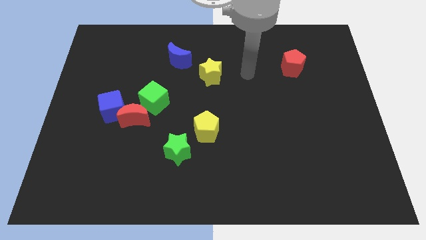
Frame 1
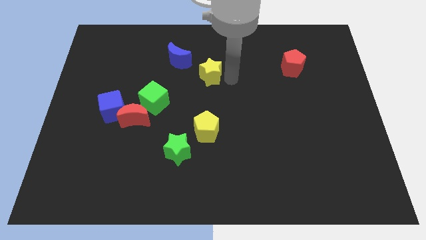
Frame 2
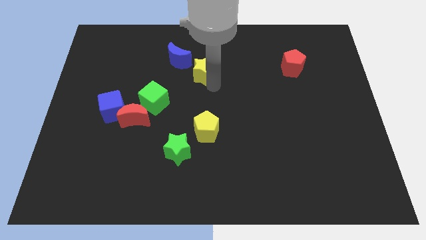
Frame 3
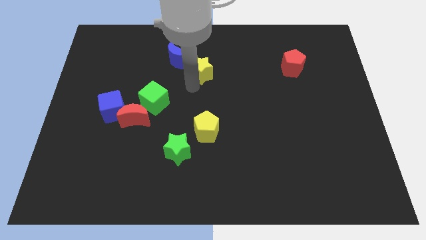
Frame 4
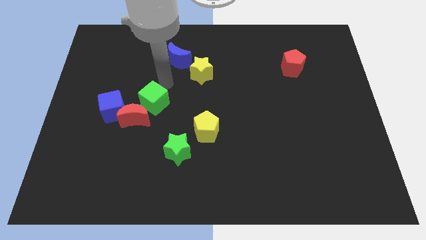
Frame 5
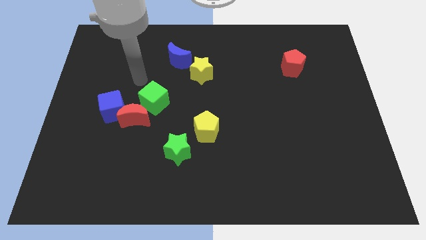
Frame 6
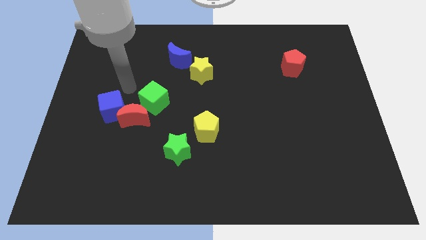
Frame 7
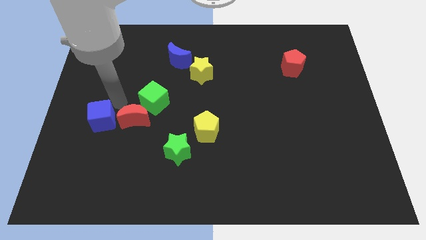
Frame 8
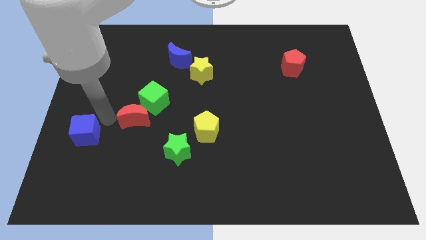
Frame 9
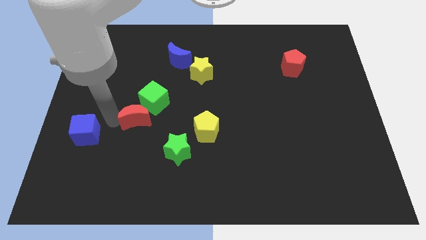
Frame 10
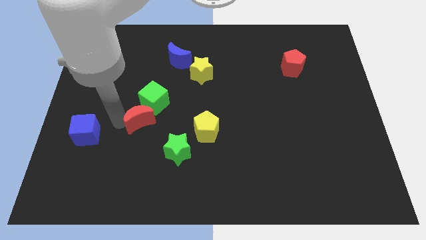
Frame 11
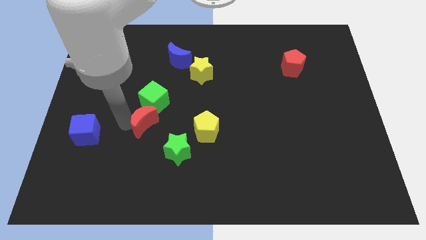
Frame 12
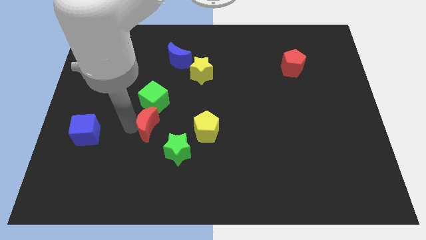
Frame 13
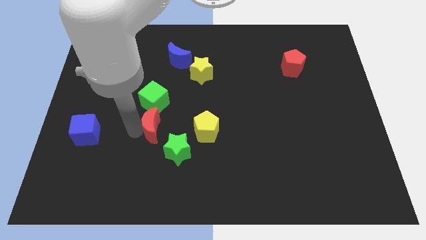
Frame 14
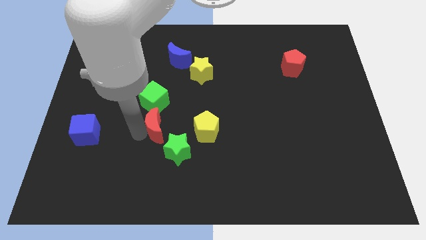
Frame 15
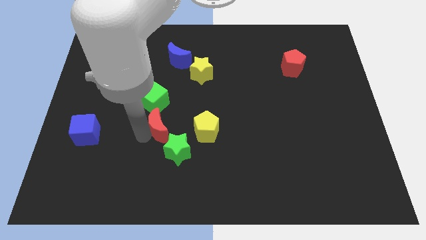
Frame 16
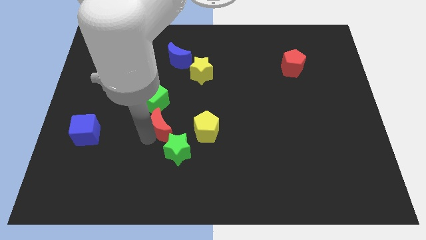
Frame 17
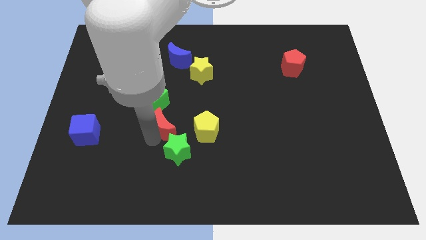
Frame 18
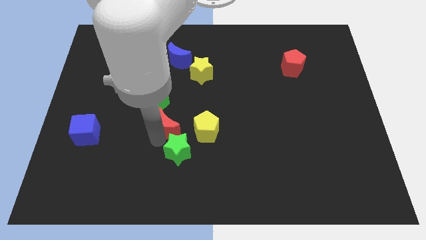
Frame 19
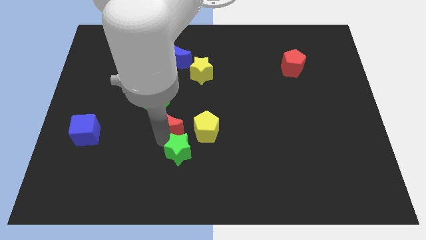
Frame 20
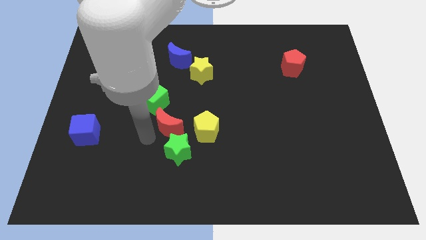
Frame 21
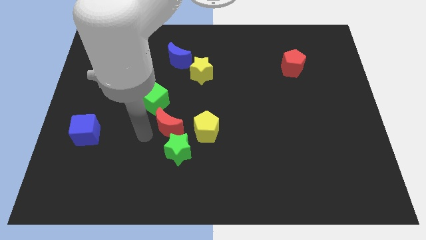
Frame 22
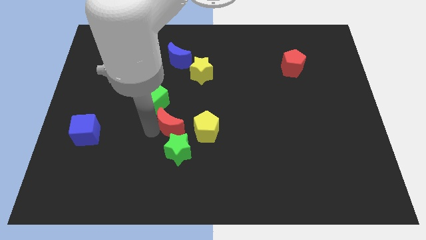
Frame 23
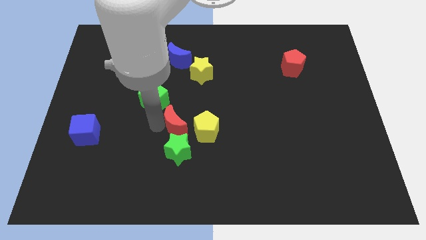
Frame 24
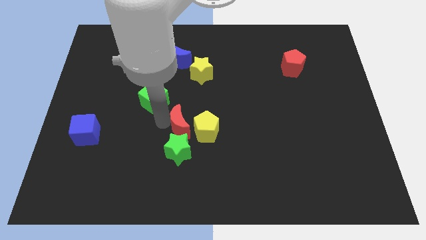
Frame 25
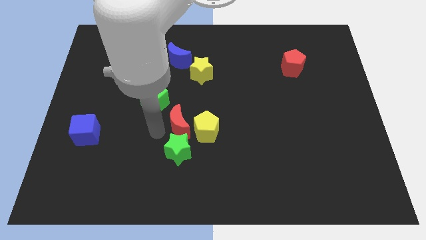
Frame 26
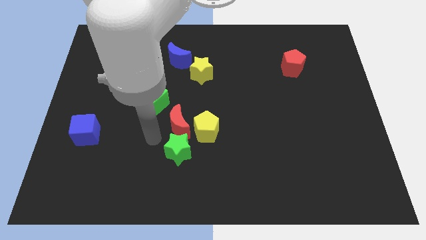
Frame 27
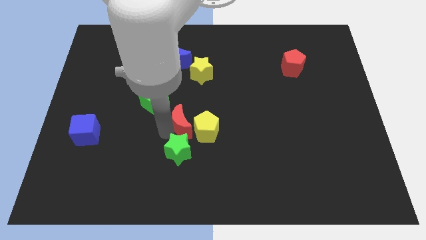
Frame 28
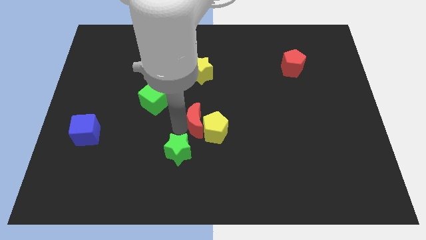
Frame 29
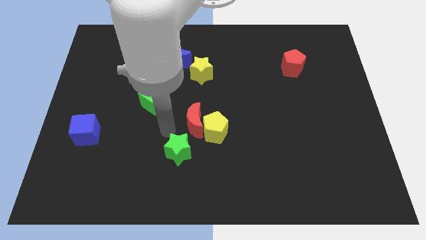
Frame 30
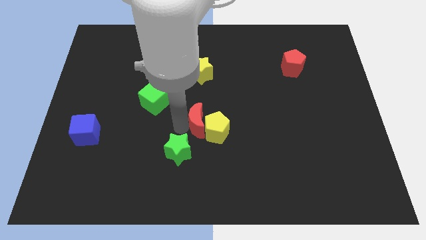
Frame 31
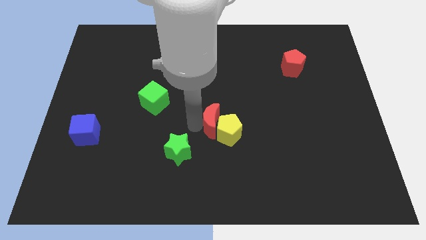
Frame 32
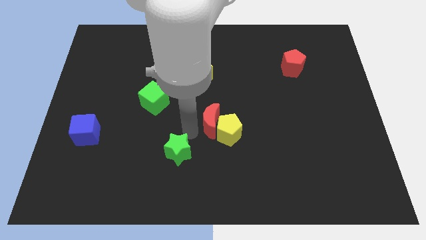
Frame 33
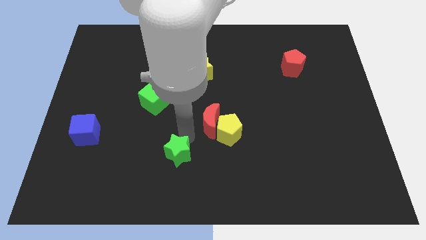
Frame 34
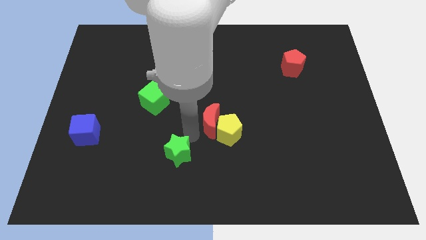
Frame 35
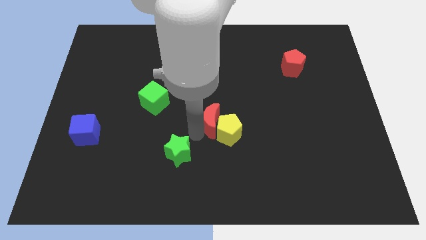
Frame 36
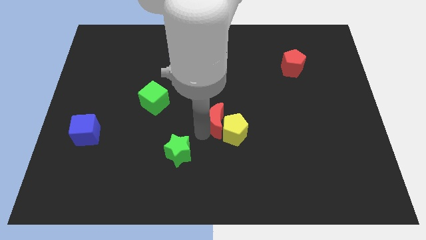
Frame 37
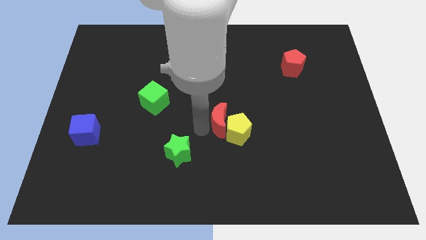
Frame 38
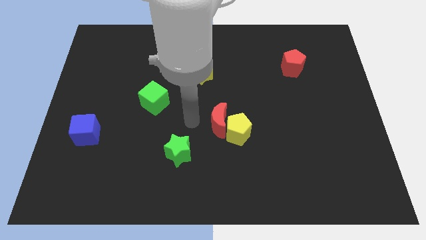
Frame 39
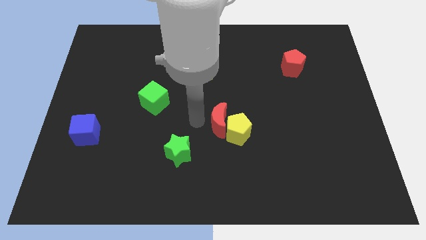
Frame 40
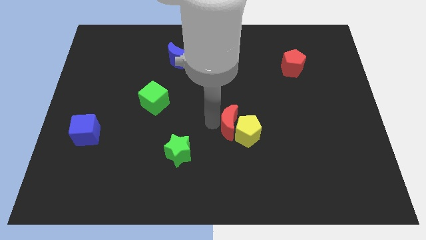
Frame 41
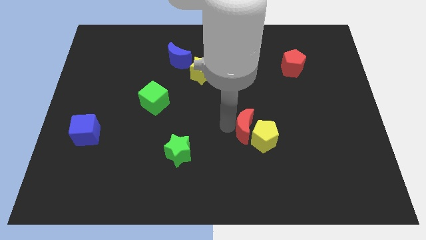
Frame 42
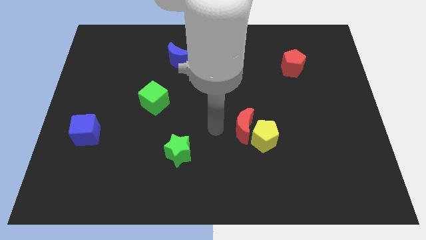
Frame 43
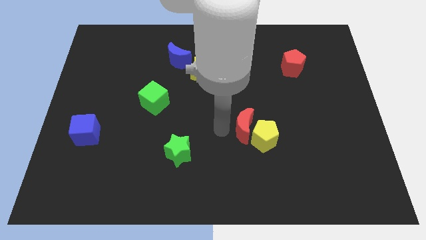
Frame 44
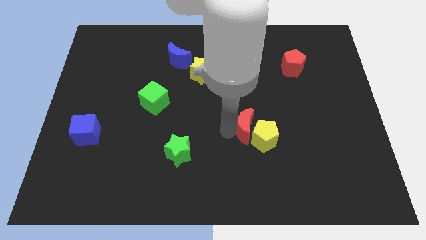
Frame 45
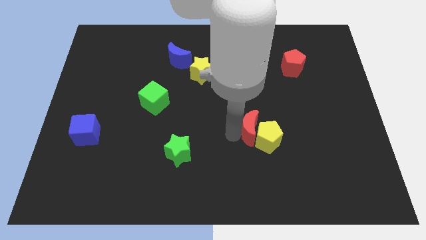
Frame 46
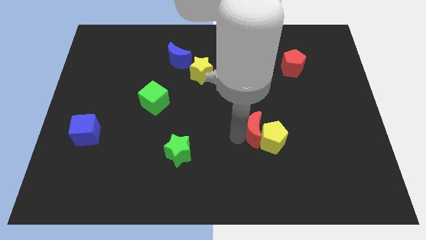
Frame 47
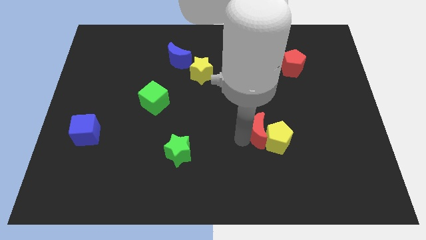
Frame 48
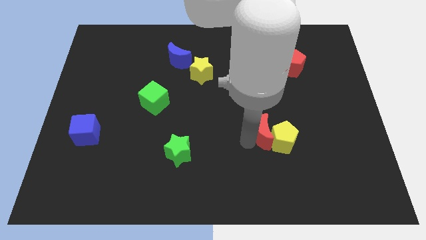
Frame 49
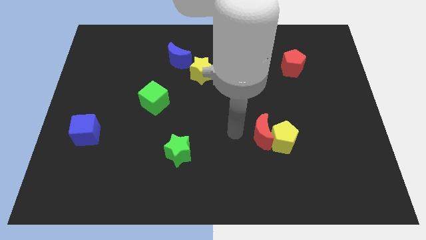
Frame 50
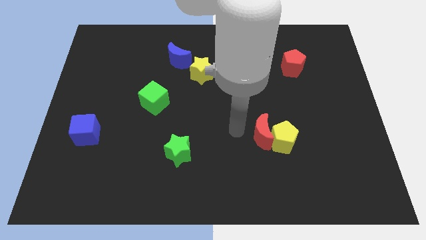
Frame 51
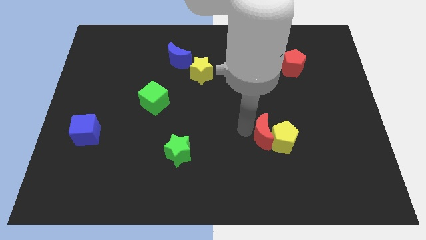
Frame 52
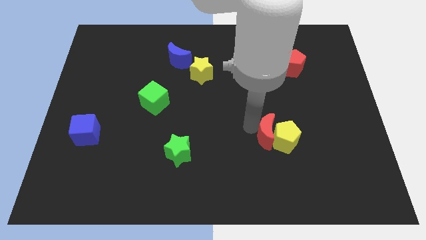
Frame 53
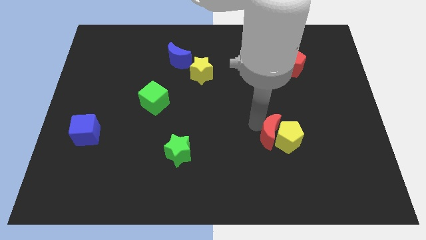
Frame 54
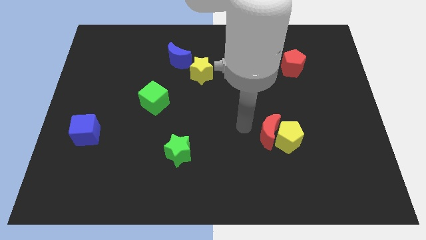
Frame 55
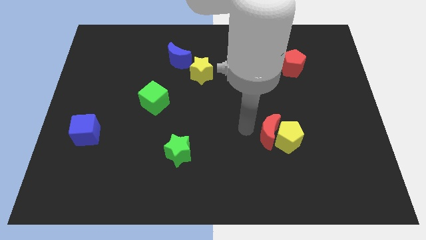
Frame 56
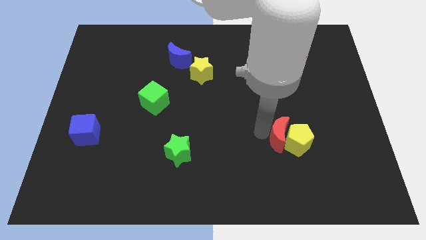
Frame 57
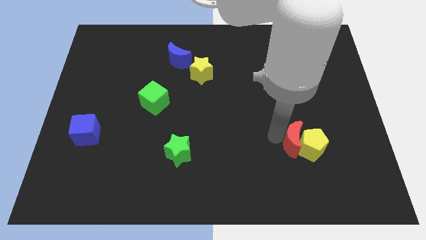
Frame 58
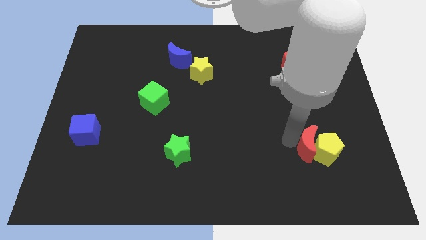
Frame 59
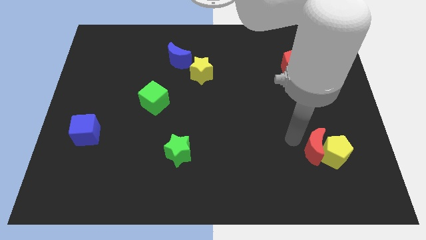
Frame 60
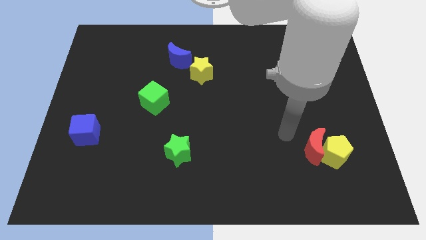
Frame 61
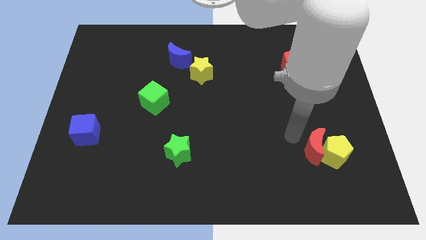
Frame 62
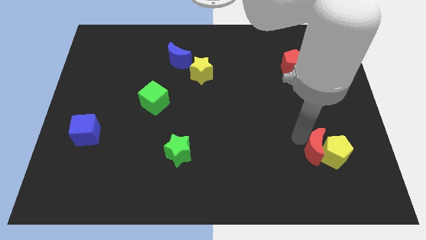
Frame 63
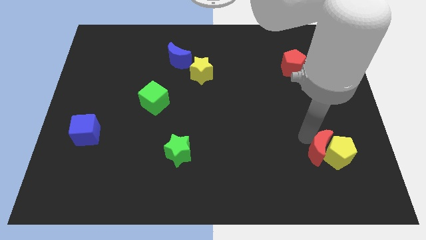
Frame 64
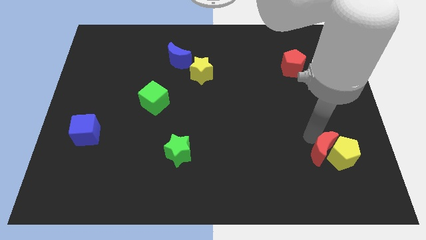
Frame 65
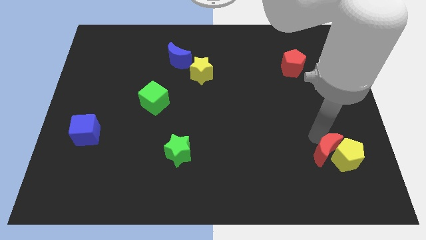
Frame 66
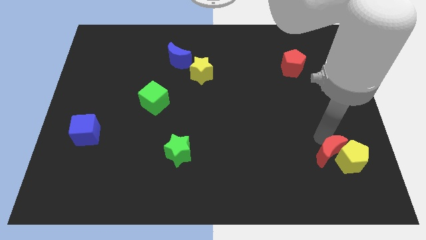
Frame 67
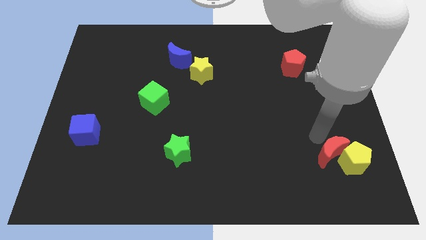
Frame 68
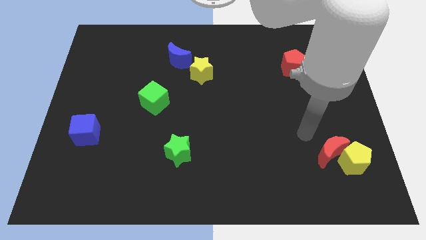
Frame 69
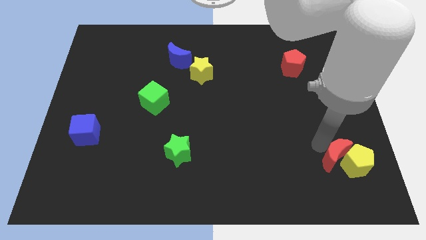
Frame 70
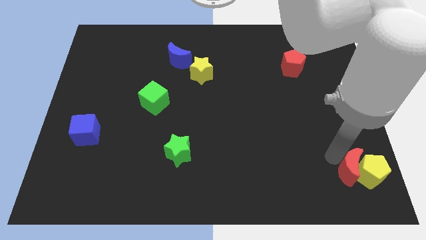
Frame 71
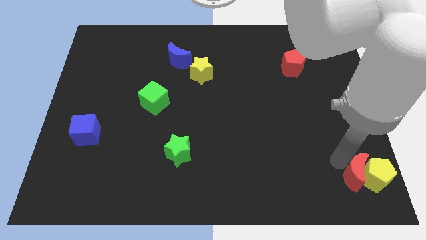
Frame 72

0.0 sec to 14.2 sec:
move the red moon to the lower right corner
